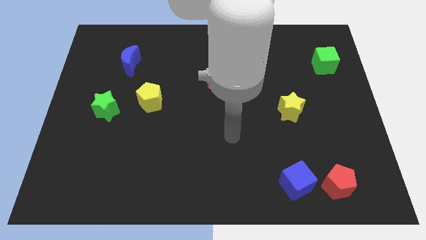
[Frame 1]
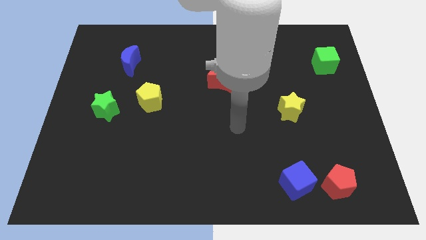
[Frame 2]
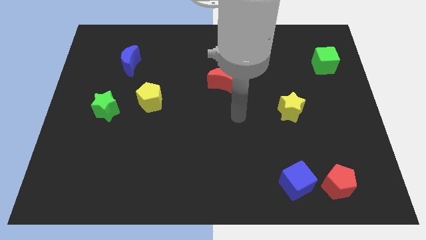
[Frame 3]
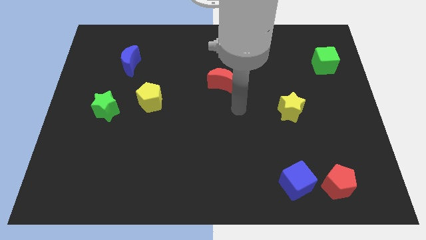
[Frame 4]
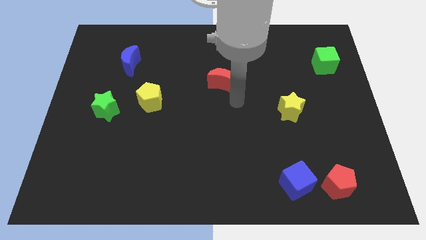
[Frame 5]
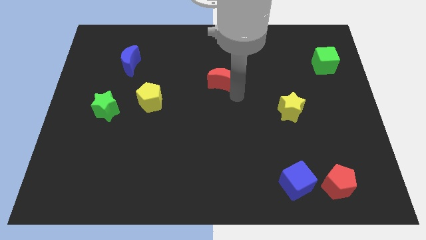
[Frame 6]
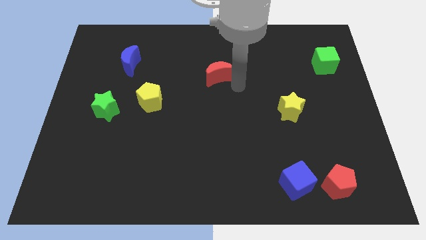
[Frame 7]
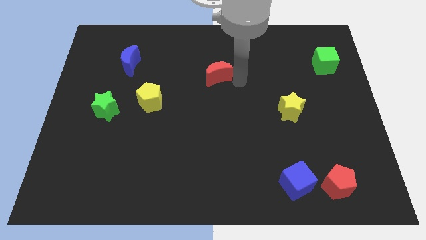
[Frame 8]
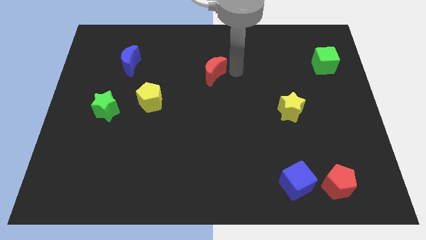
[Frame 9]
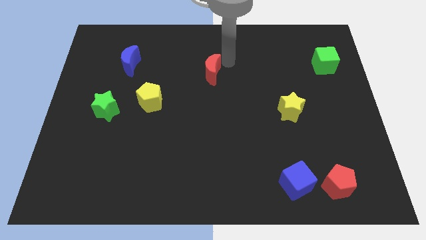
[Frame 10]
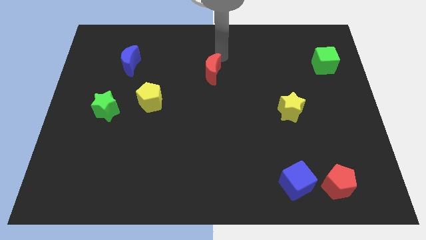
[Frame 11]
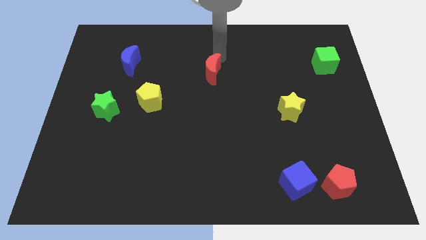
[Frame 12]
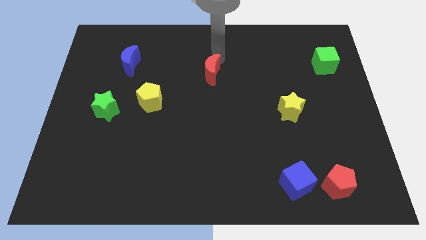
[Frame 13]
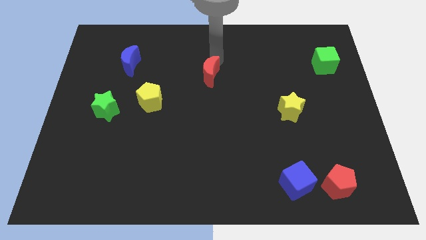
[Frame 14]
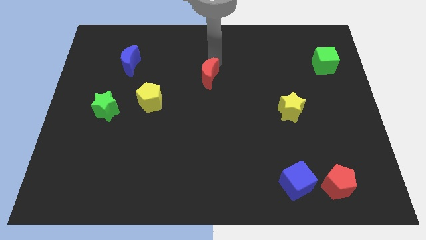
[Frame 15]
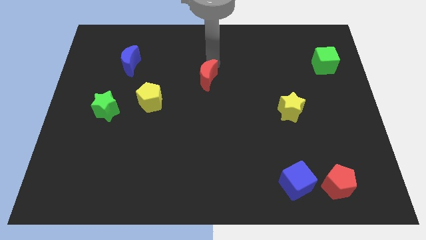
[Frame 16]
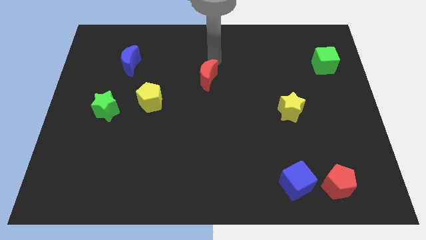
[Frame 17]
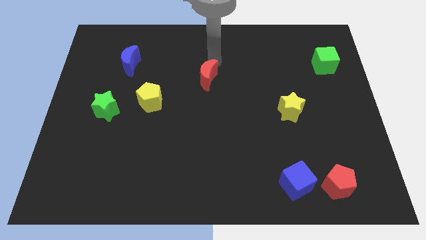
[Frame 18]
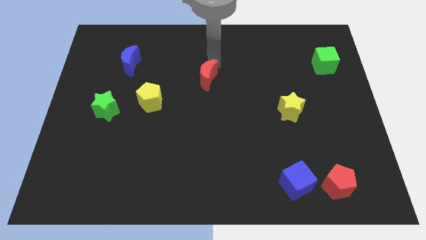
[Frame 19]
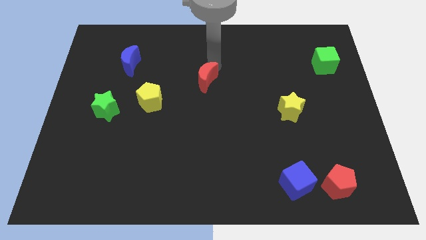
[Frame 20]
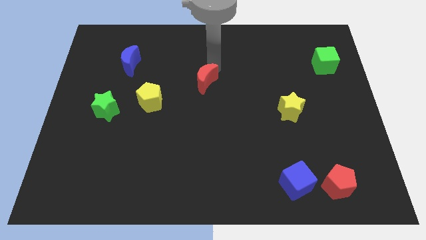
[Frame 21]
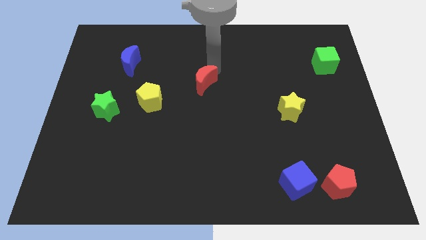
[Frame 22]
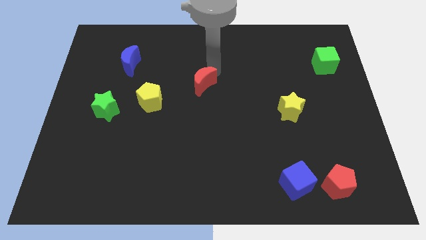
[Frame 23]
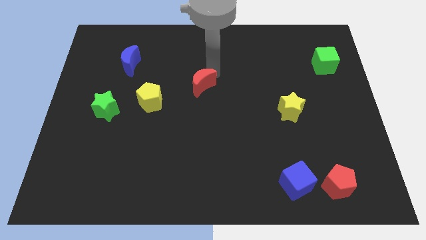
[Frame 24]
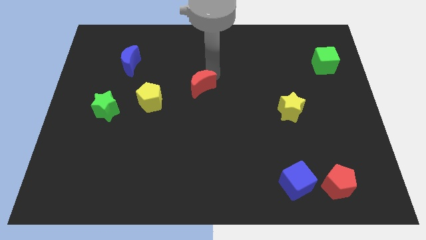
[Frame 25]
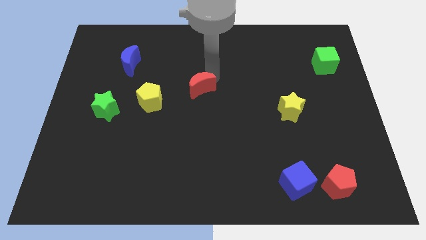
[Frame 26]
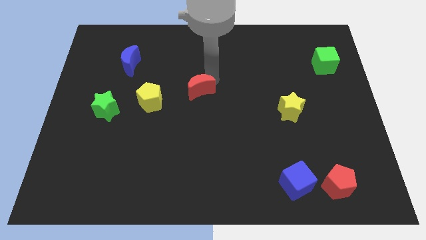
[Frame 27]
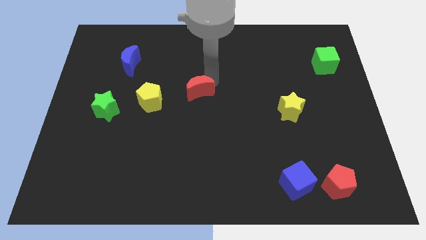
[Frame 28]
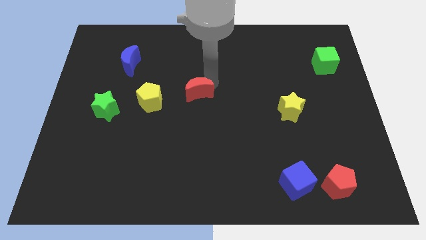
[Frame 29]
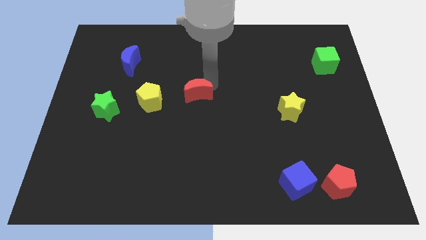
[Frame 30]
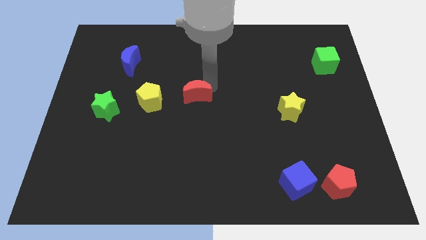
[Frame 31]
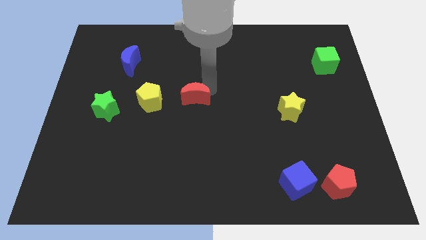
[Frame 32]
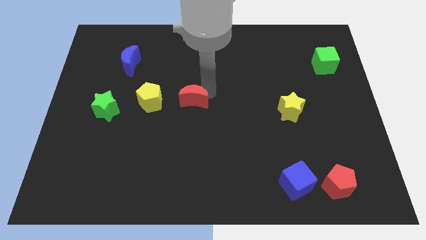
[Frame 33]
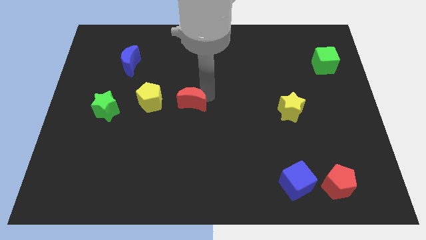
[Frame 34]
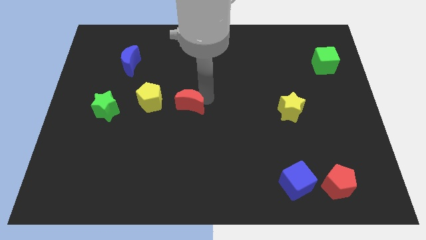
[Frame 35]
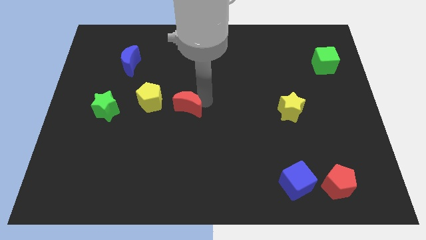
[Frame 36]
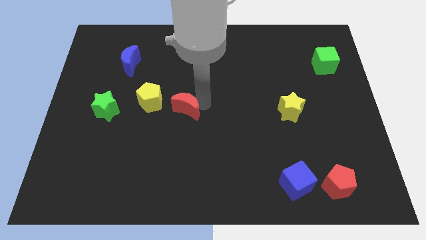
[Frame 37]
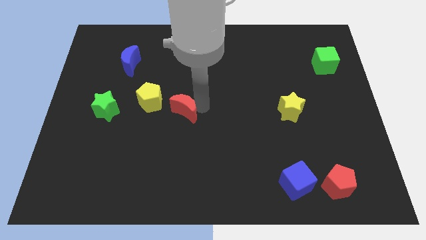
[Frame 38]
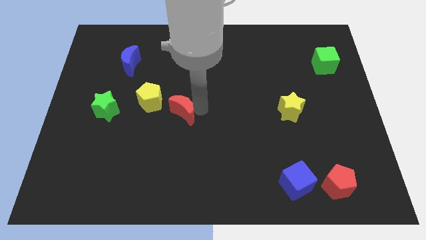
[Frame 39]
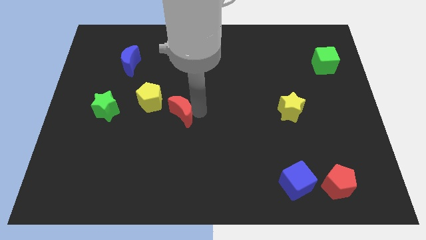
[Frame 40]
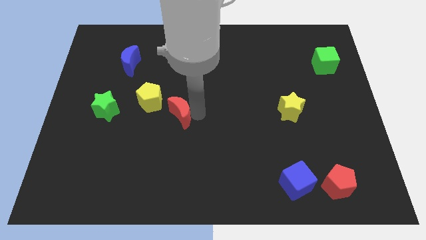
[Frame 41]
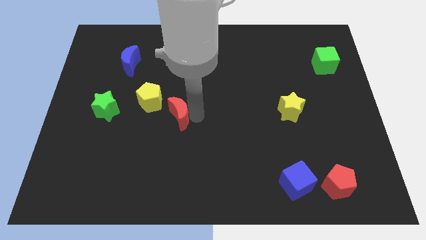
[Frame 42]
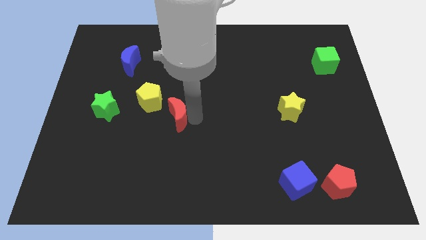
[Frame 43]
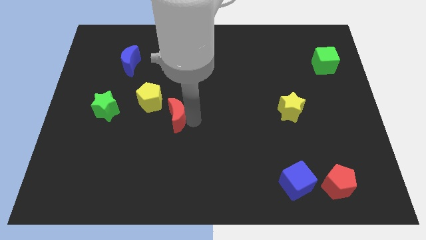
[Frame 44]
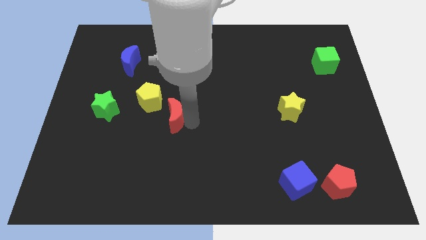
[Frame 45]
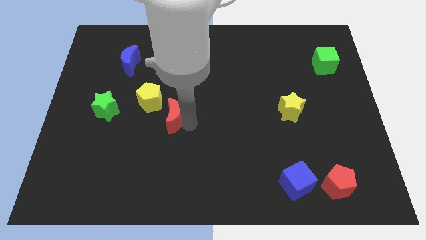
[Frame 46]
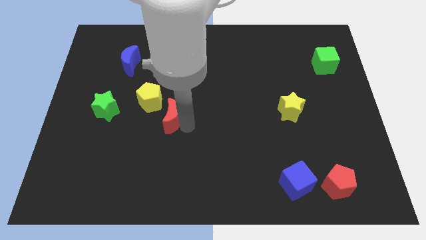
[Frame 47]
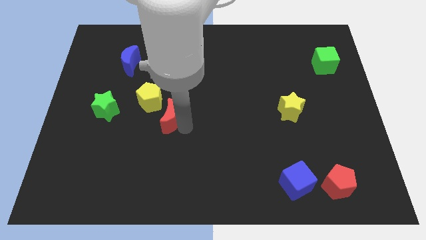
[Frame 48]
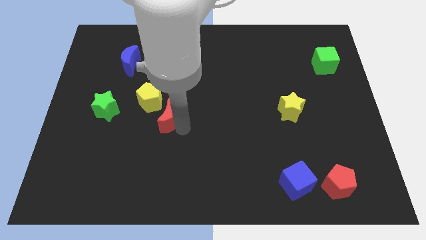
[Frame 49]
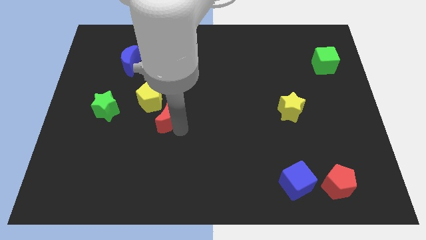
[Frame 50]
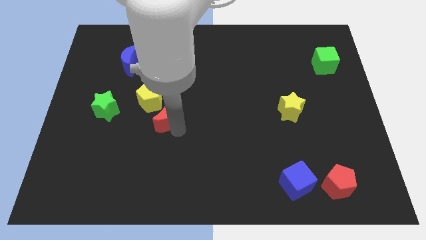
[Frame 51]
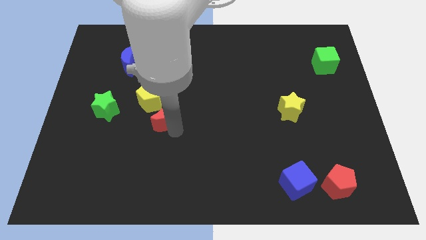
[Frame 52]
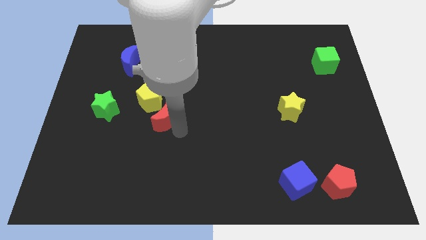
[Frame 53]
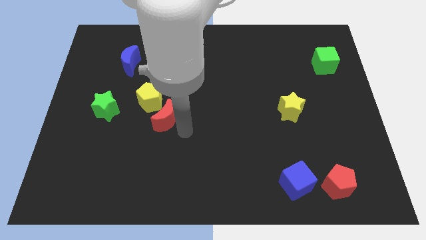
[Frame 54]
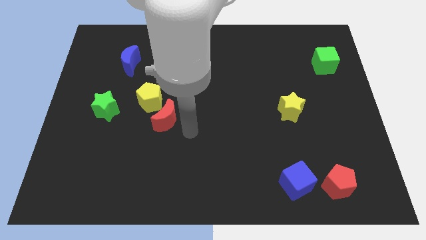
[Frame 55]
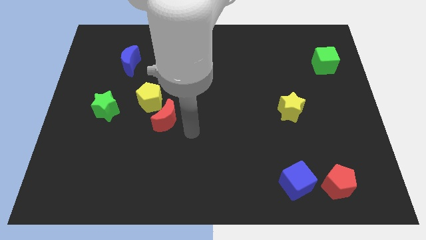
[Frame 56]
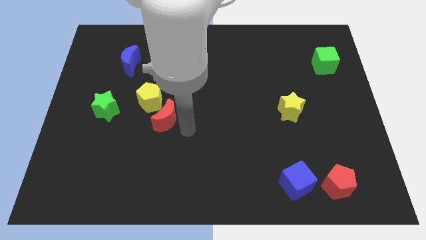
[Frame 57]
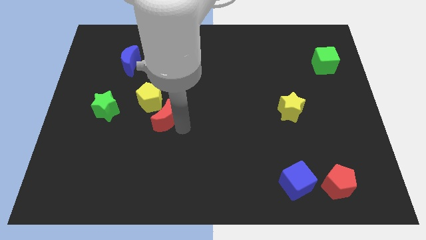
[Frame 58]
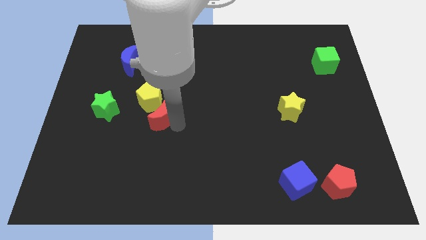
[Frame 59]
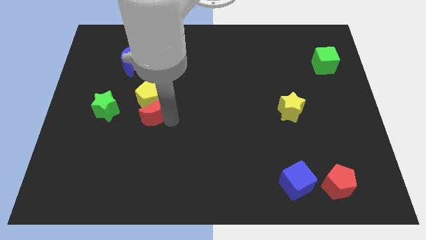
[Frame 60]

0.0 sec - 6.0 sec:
move the red moon to the bottom left of the yellow pentagon

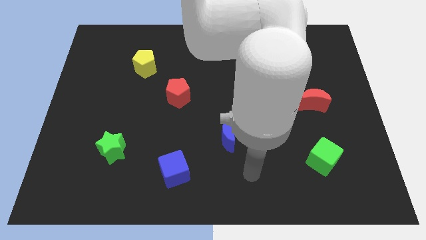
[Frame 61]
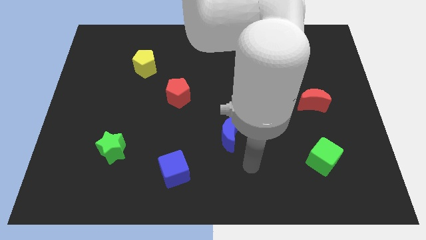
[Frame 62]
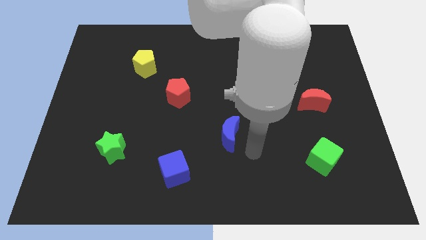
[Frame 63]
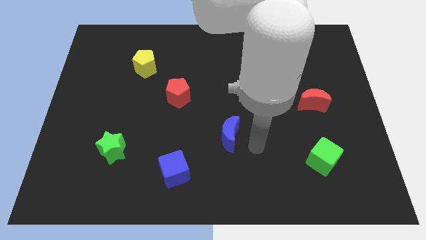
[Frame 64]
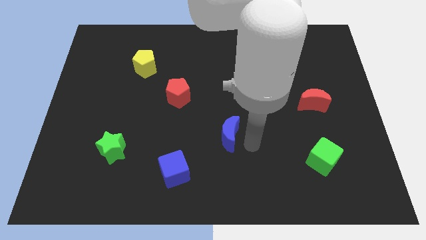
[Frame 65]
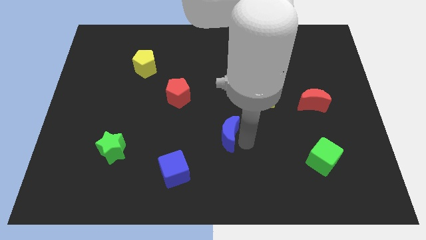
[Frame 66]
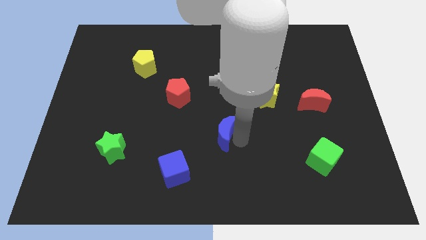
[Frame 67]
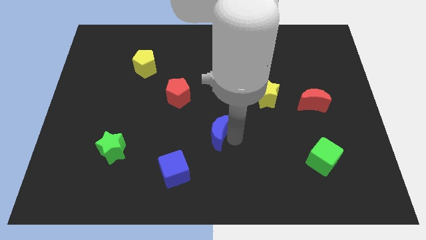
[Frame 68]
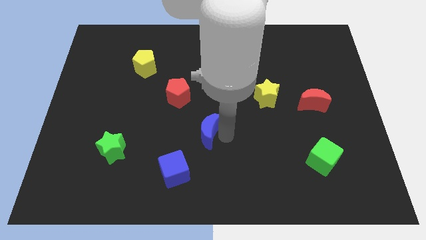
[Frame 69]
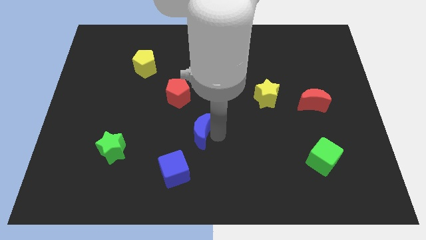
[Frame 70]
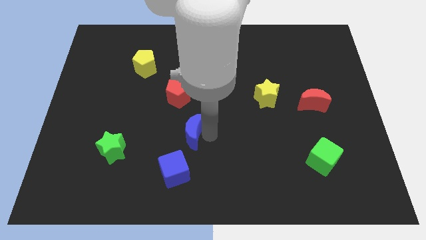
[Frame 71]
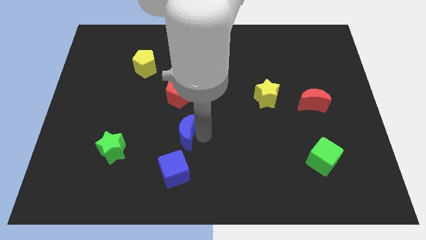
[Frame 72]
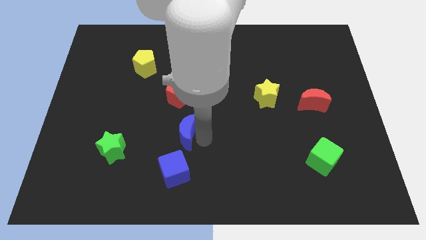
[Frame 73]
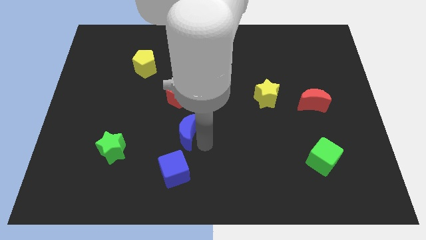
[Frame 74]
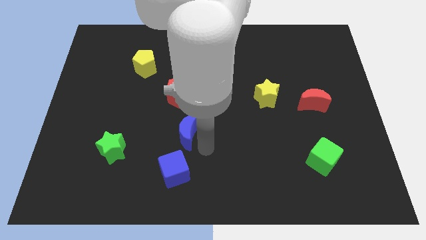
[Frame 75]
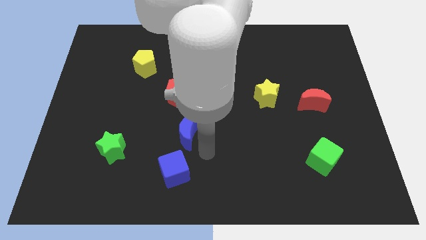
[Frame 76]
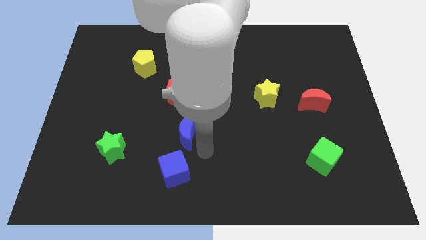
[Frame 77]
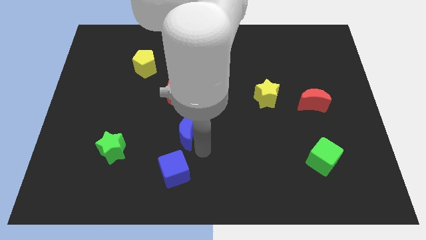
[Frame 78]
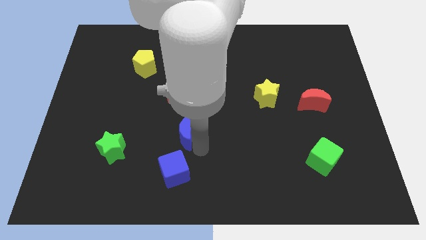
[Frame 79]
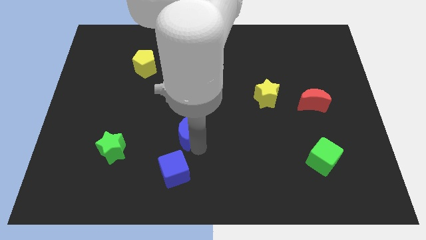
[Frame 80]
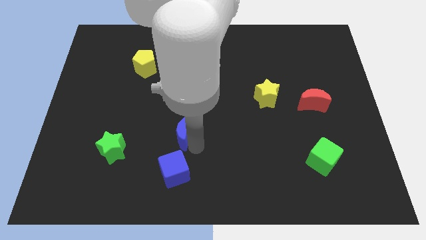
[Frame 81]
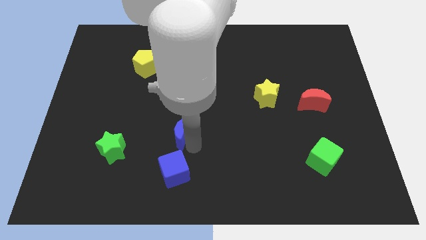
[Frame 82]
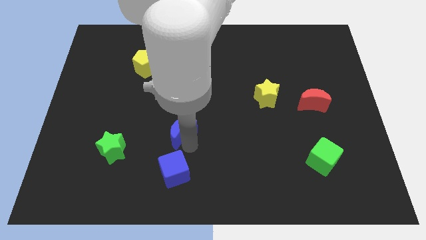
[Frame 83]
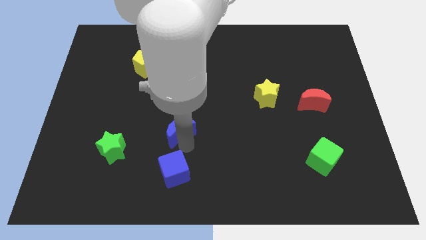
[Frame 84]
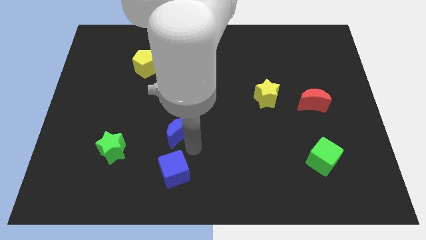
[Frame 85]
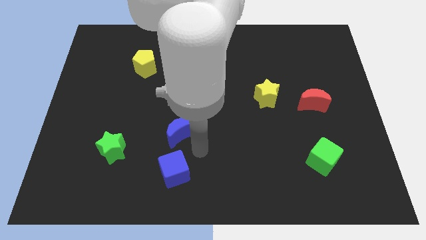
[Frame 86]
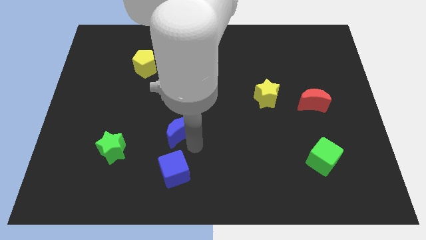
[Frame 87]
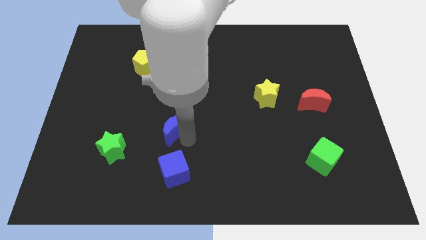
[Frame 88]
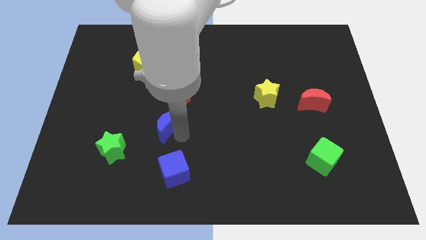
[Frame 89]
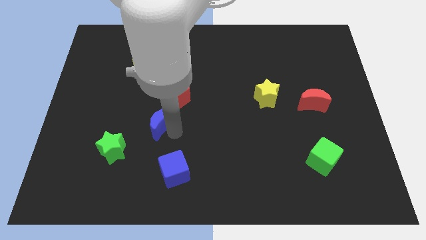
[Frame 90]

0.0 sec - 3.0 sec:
put the blue moon diagonally down and to the left of the red pentagon
